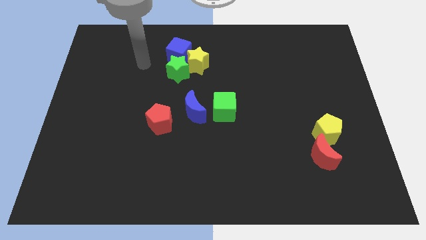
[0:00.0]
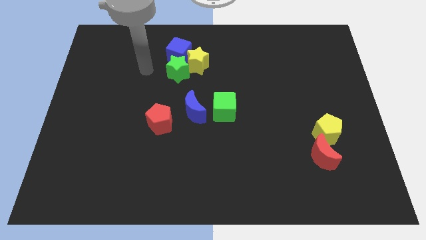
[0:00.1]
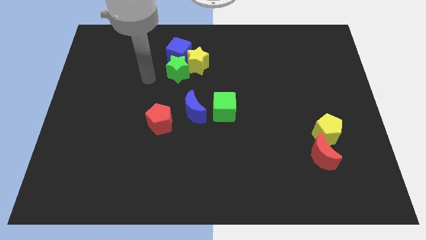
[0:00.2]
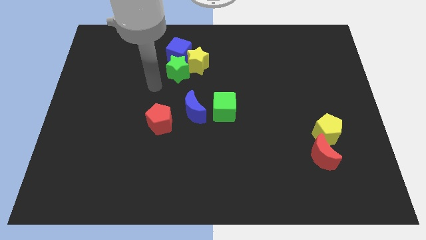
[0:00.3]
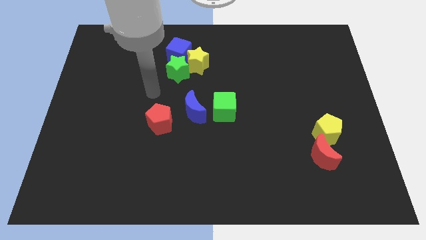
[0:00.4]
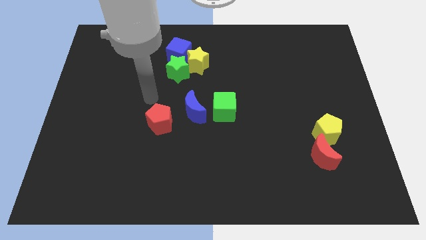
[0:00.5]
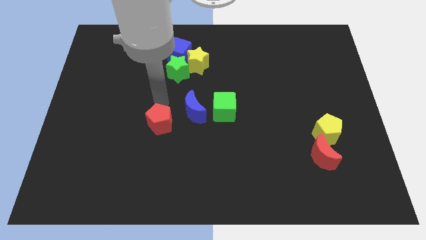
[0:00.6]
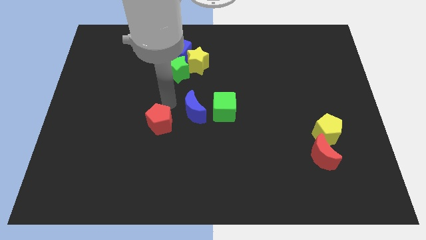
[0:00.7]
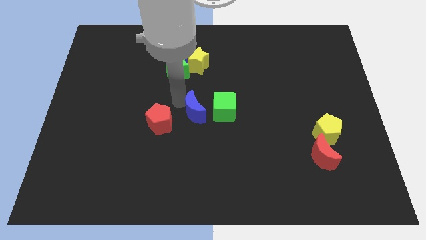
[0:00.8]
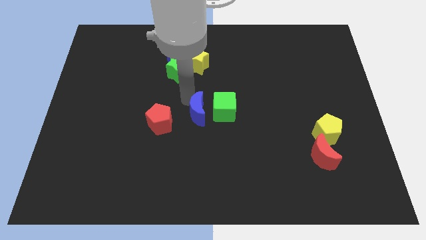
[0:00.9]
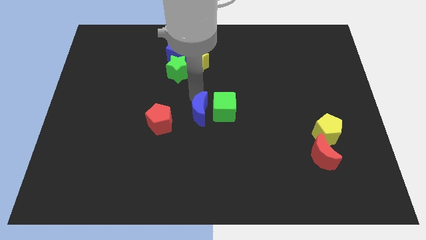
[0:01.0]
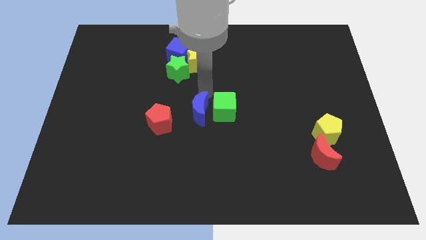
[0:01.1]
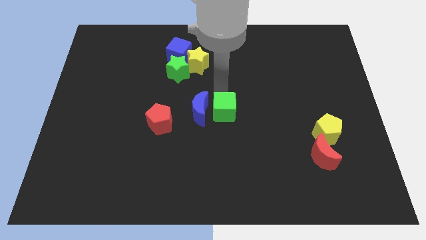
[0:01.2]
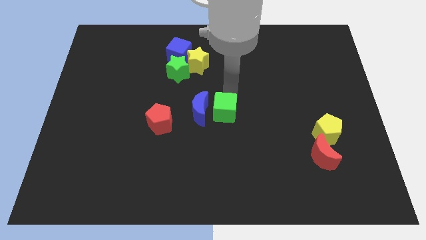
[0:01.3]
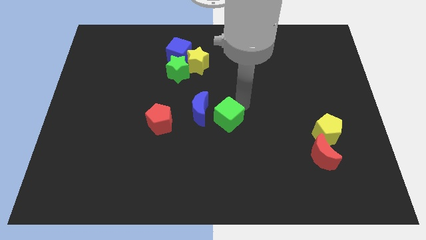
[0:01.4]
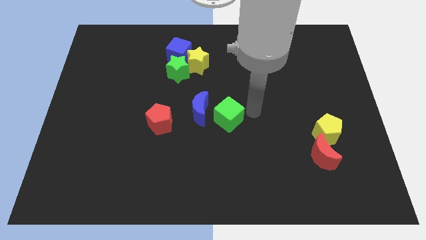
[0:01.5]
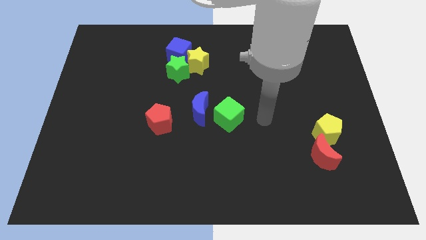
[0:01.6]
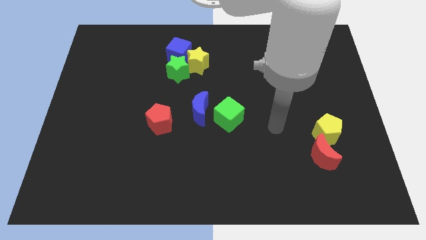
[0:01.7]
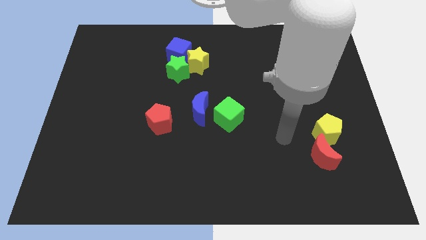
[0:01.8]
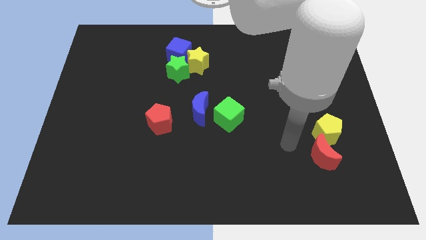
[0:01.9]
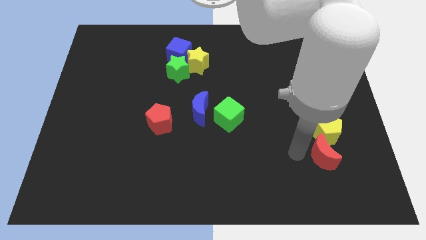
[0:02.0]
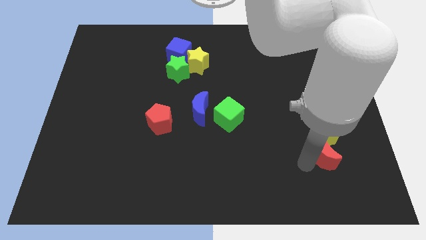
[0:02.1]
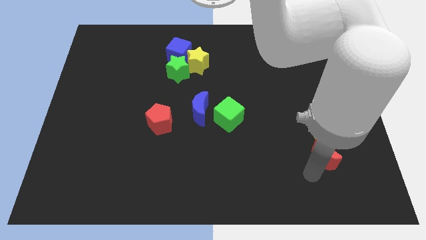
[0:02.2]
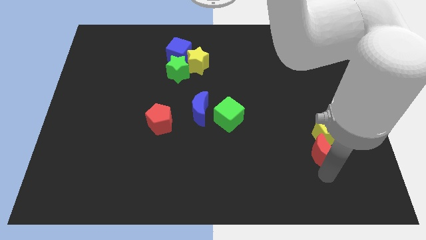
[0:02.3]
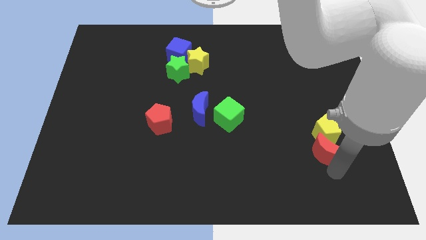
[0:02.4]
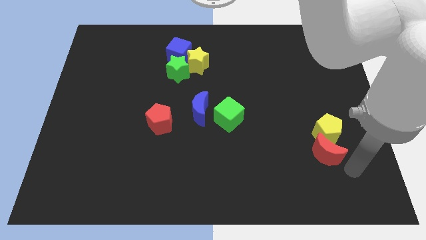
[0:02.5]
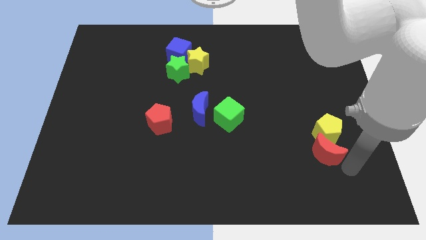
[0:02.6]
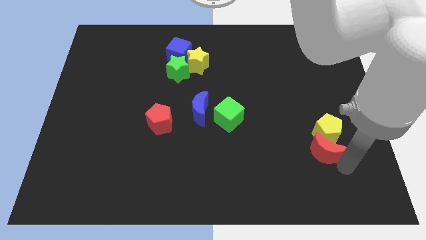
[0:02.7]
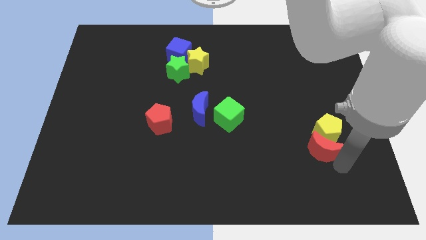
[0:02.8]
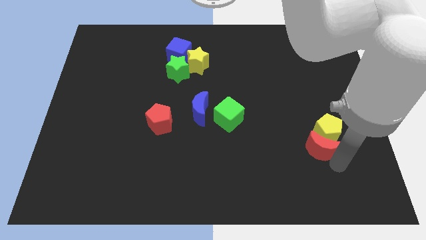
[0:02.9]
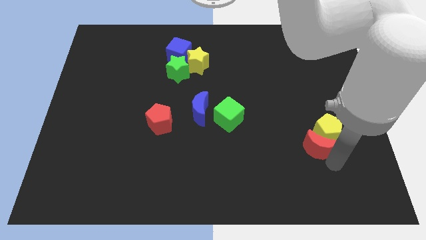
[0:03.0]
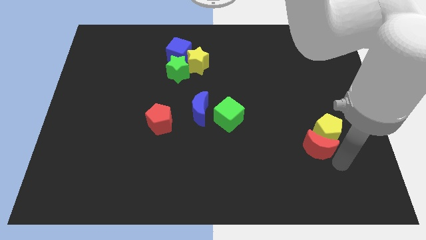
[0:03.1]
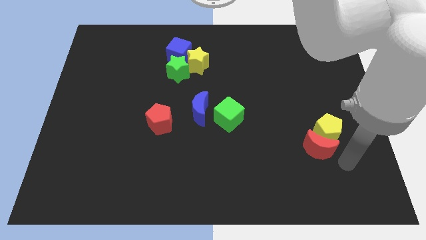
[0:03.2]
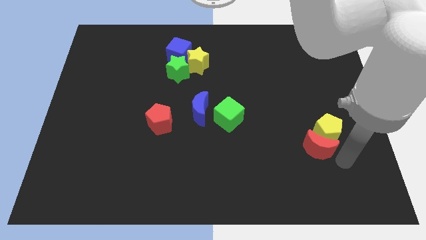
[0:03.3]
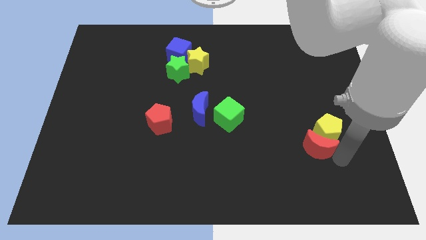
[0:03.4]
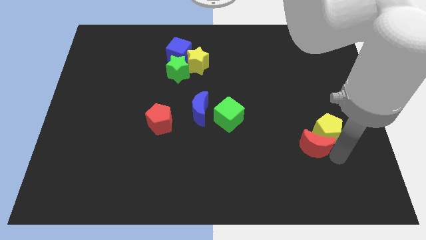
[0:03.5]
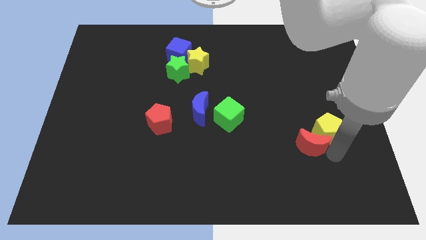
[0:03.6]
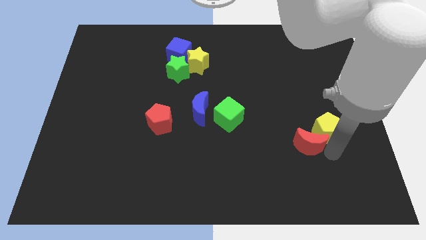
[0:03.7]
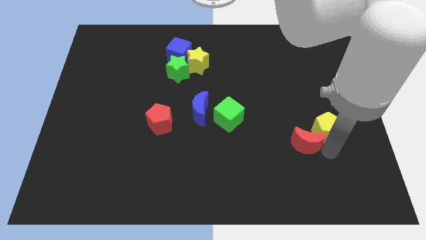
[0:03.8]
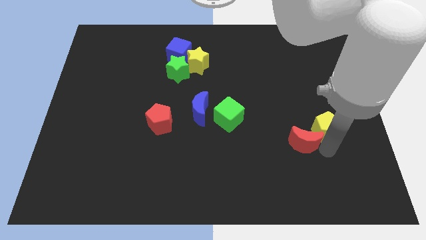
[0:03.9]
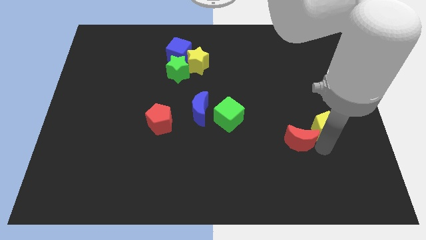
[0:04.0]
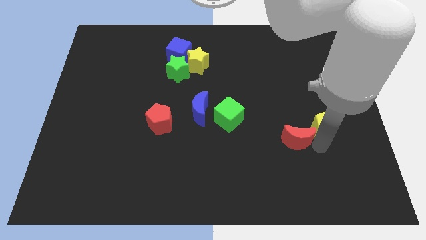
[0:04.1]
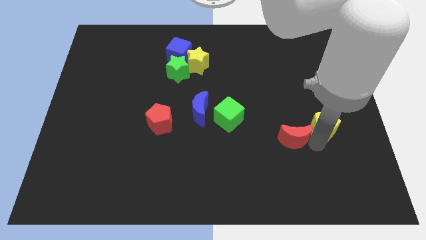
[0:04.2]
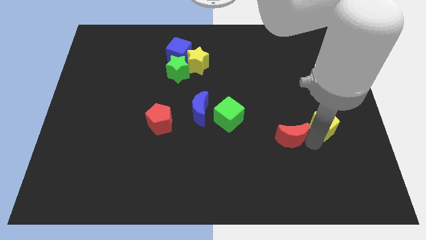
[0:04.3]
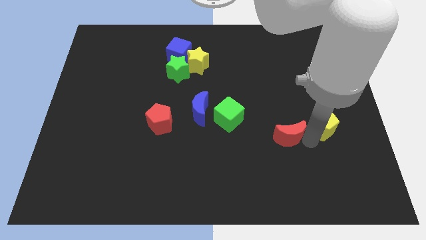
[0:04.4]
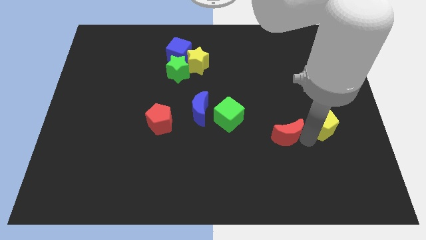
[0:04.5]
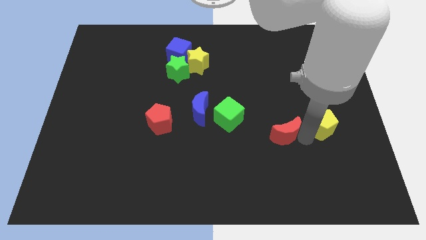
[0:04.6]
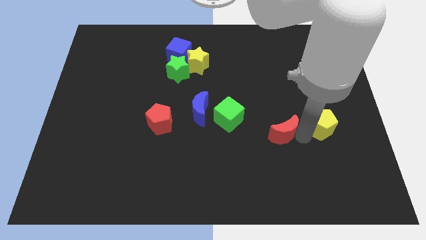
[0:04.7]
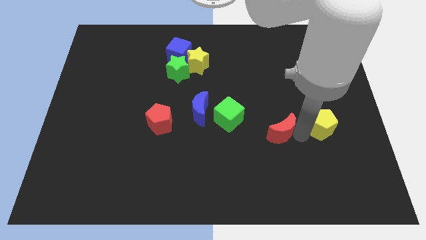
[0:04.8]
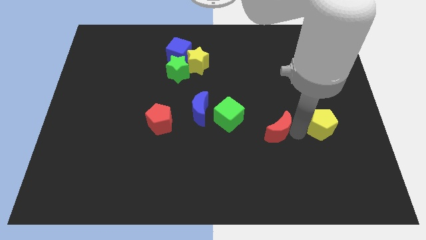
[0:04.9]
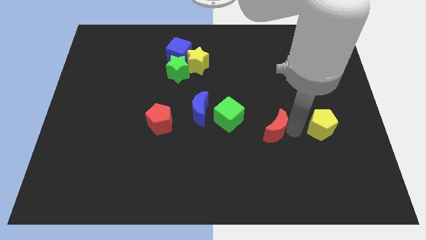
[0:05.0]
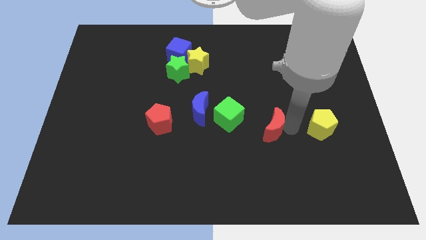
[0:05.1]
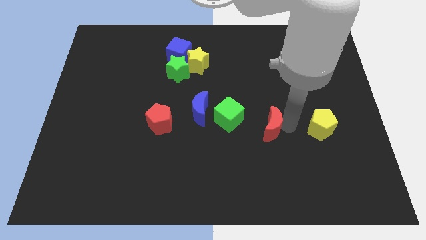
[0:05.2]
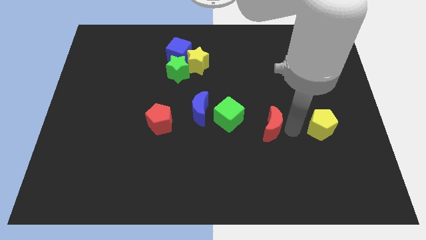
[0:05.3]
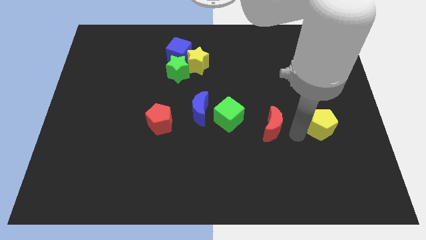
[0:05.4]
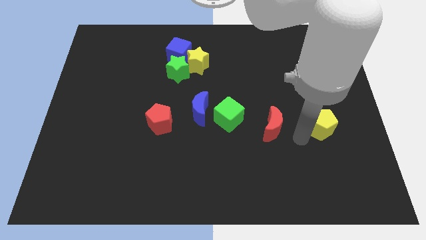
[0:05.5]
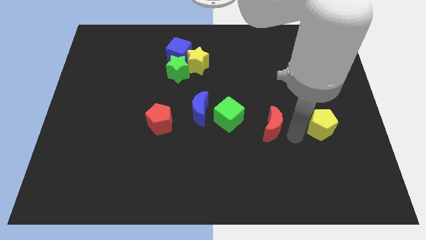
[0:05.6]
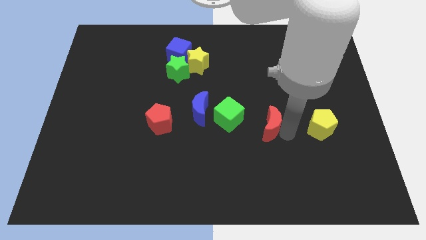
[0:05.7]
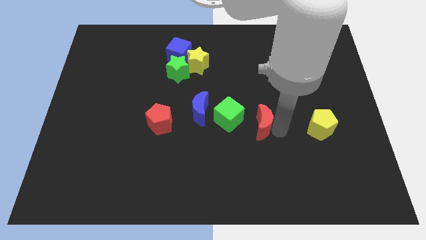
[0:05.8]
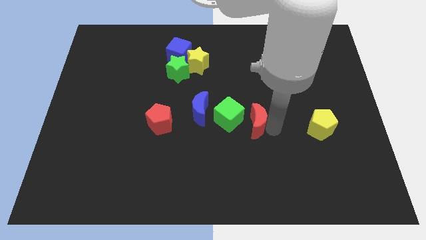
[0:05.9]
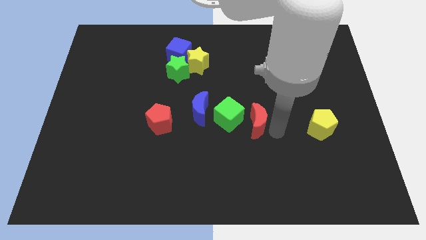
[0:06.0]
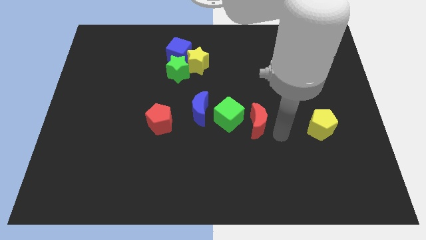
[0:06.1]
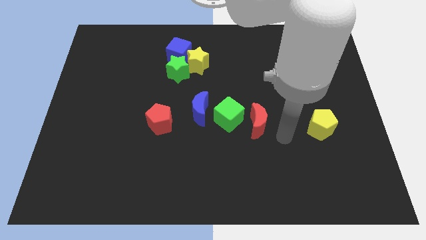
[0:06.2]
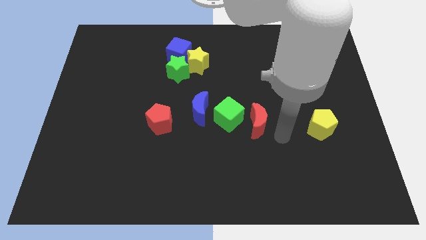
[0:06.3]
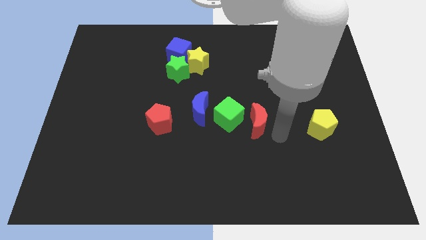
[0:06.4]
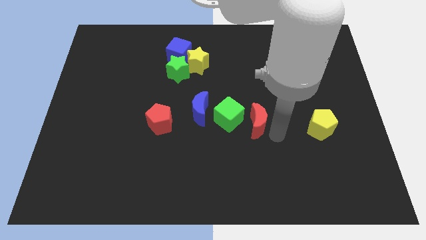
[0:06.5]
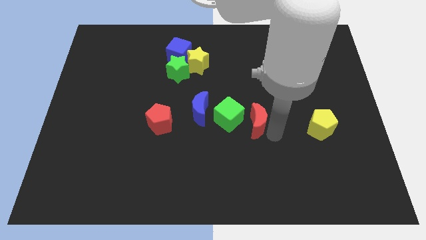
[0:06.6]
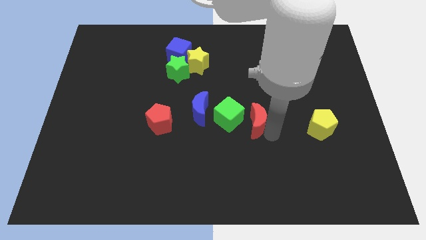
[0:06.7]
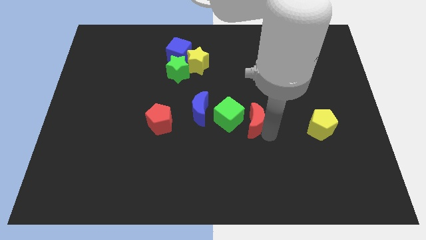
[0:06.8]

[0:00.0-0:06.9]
push the red moon next to the green cube

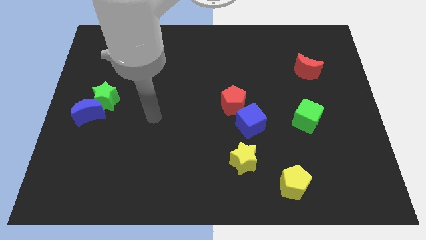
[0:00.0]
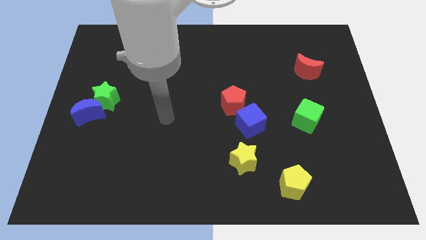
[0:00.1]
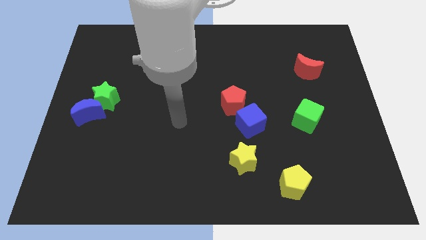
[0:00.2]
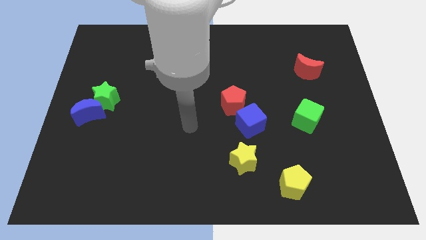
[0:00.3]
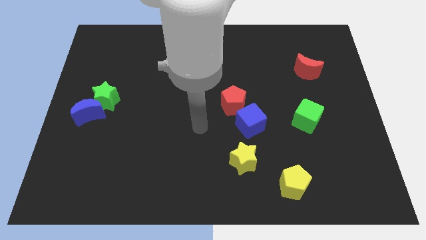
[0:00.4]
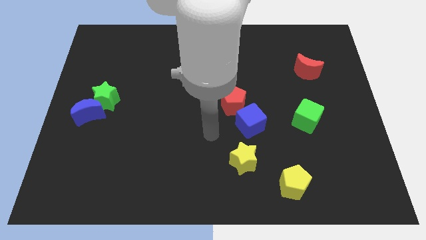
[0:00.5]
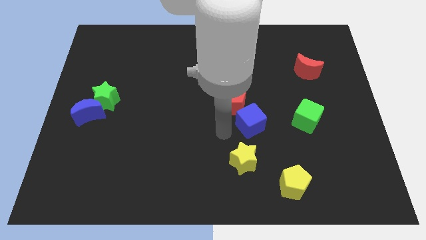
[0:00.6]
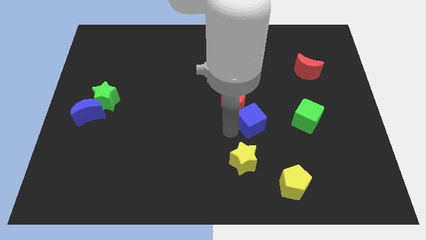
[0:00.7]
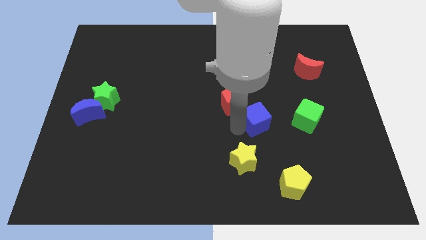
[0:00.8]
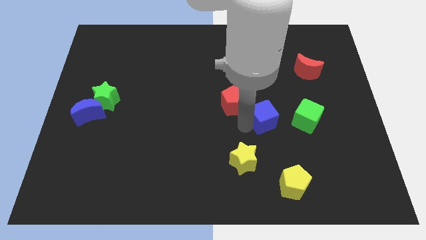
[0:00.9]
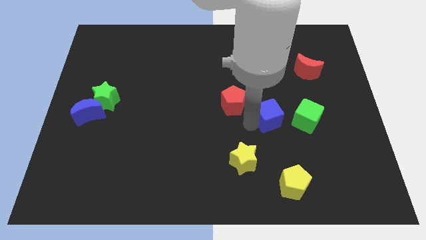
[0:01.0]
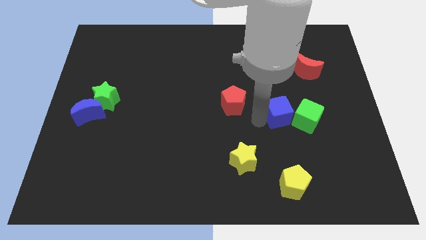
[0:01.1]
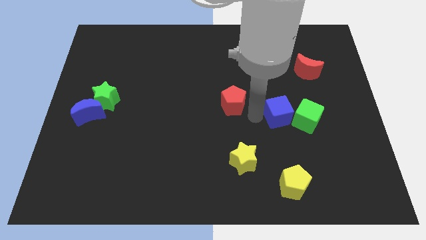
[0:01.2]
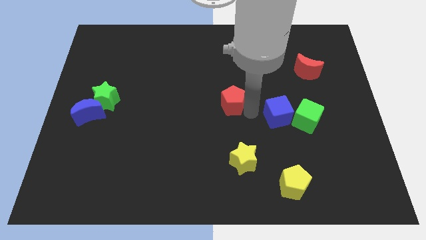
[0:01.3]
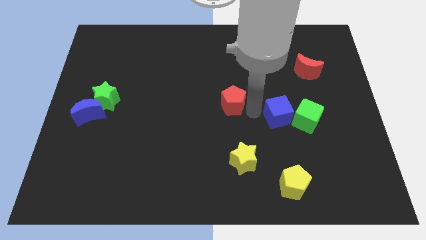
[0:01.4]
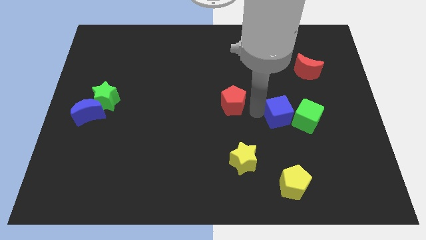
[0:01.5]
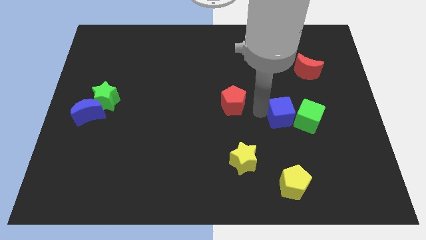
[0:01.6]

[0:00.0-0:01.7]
push the blue cube close to the green cube
